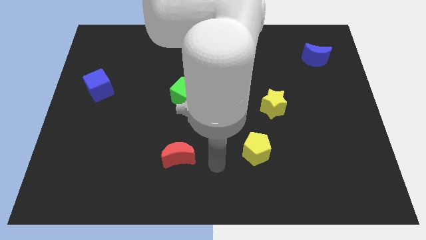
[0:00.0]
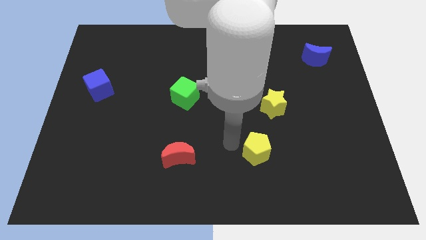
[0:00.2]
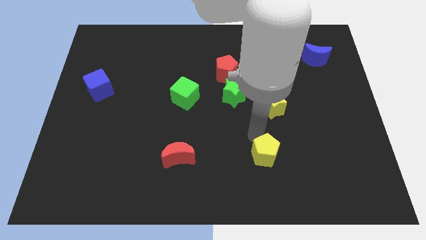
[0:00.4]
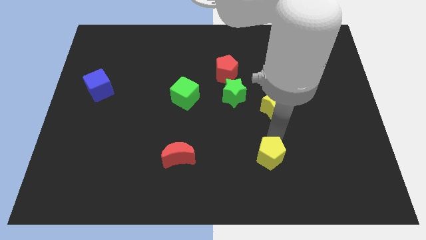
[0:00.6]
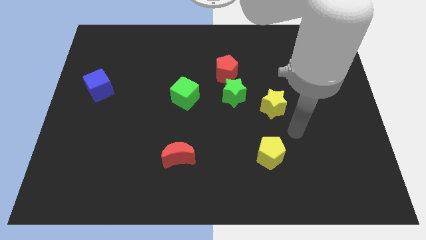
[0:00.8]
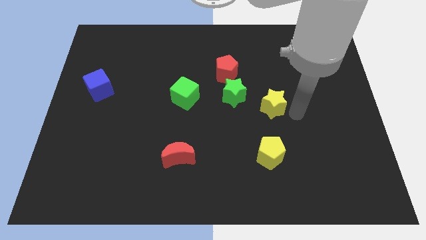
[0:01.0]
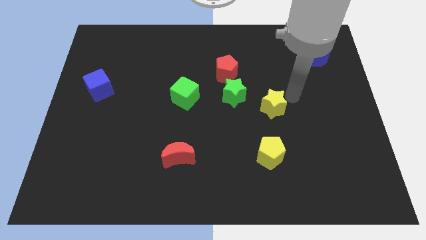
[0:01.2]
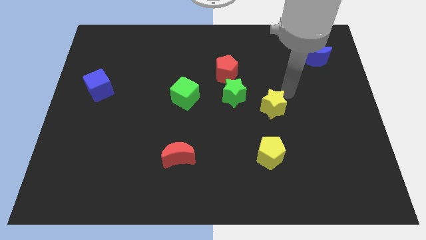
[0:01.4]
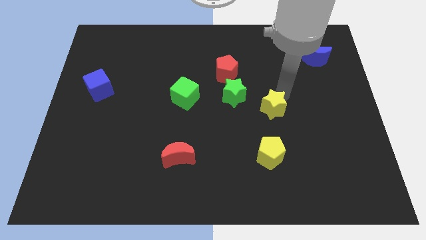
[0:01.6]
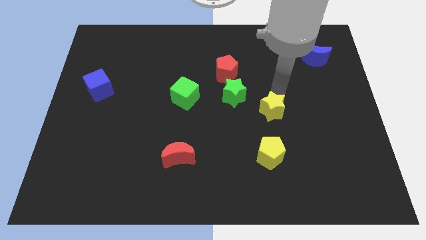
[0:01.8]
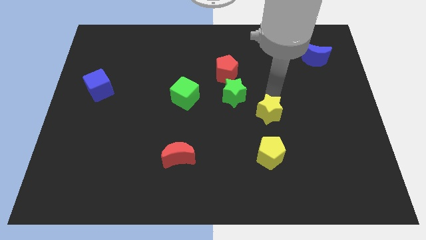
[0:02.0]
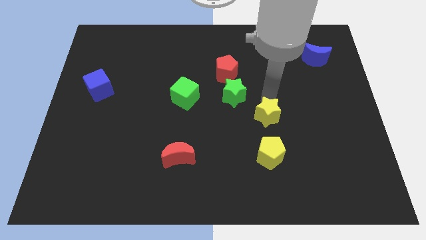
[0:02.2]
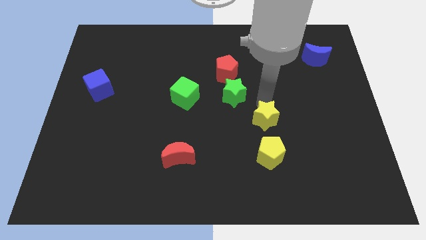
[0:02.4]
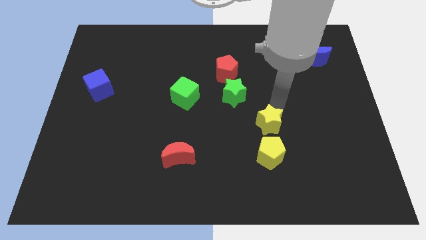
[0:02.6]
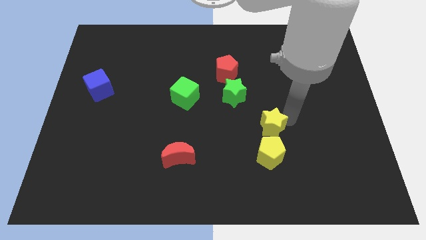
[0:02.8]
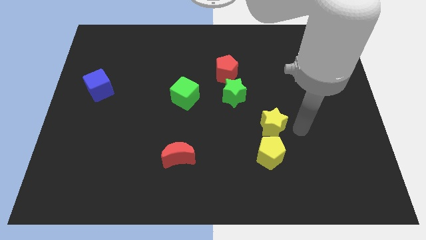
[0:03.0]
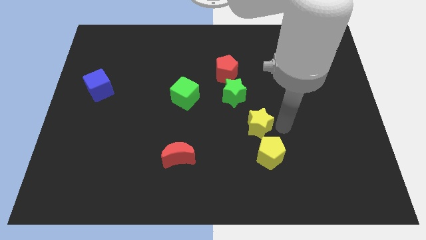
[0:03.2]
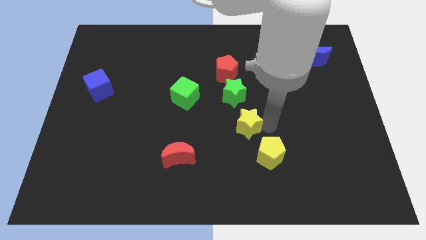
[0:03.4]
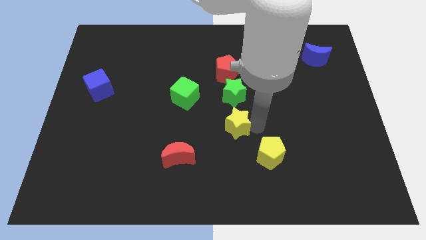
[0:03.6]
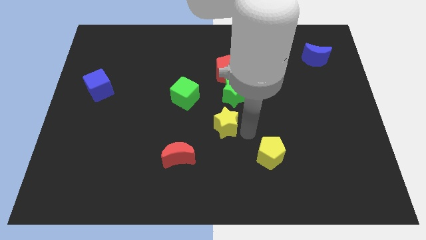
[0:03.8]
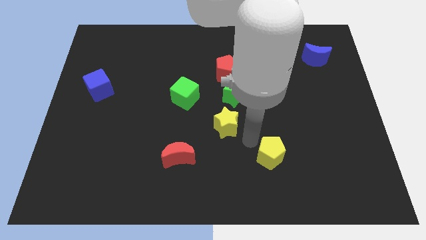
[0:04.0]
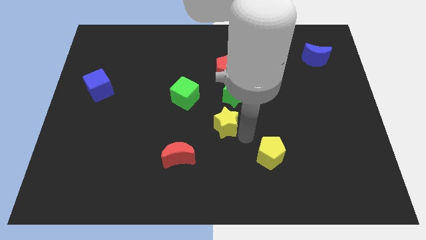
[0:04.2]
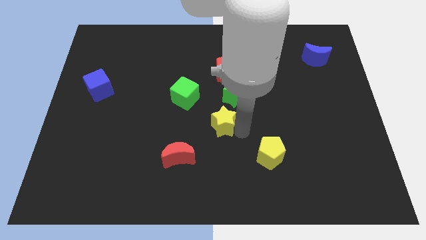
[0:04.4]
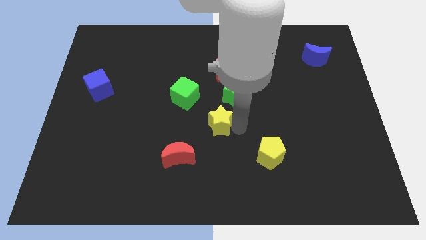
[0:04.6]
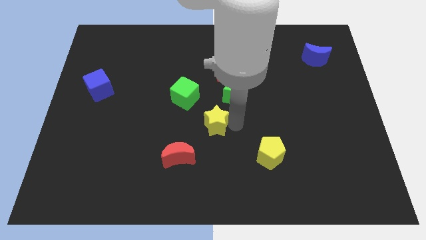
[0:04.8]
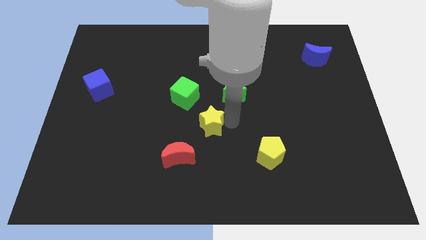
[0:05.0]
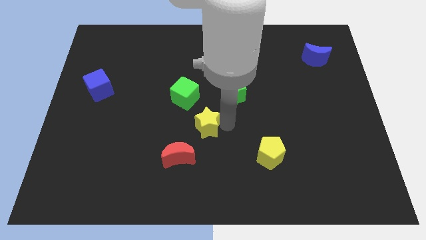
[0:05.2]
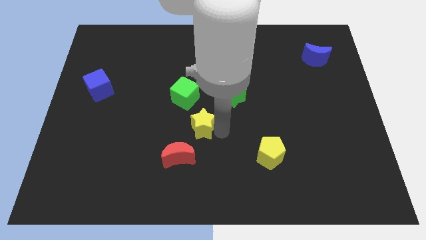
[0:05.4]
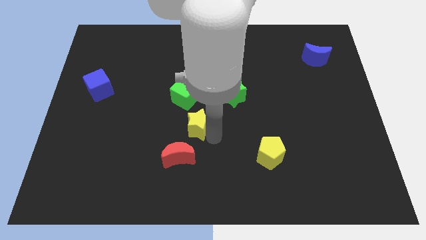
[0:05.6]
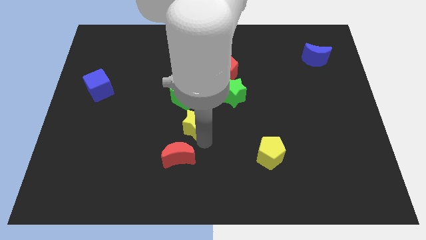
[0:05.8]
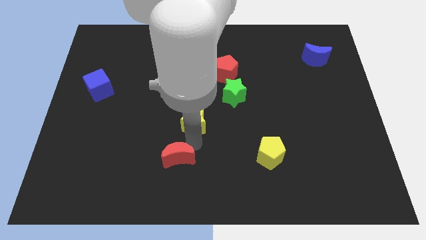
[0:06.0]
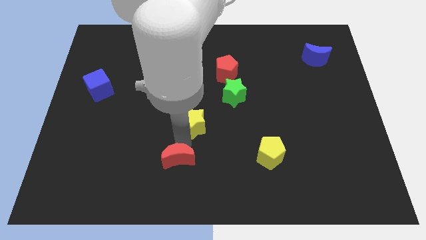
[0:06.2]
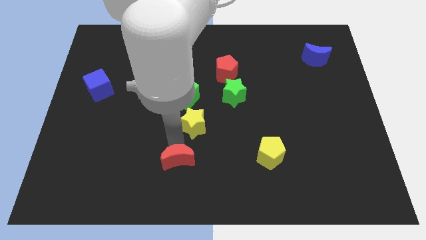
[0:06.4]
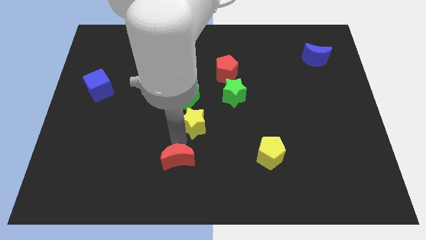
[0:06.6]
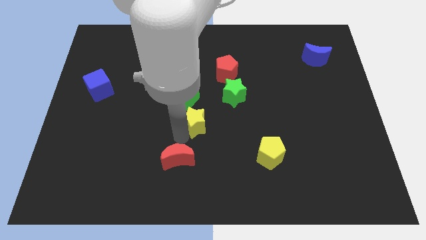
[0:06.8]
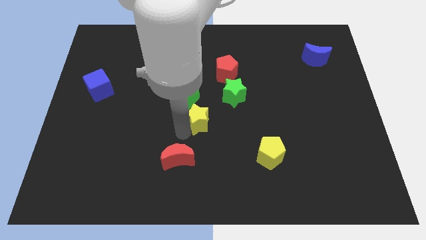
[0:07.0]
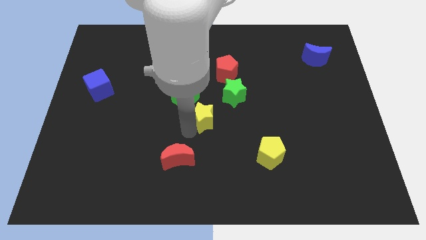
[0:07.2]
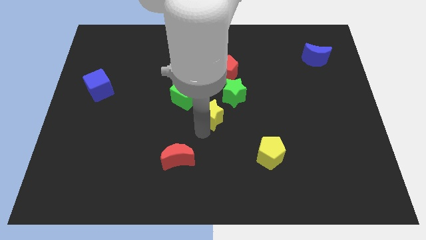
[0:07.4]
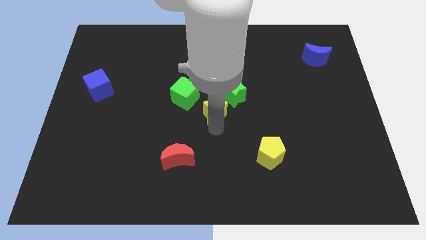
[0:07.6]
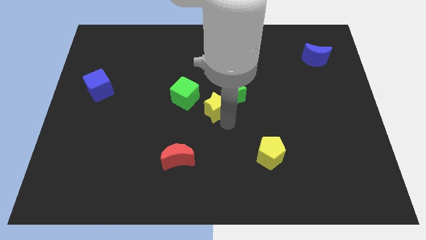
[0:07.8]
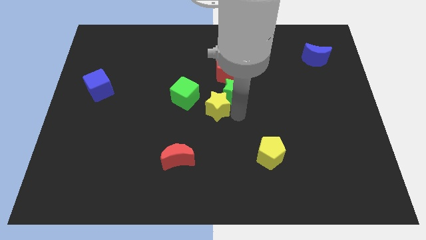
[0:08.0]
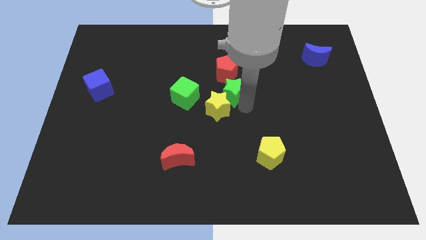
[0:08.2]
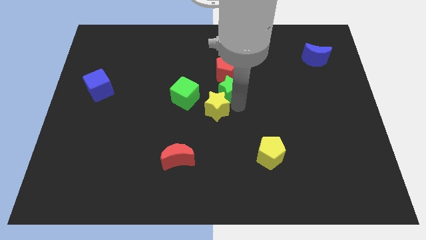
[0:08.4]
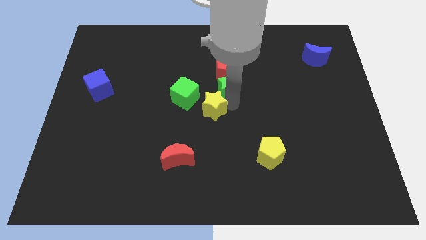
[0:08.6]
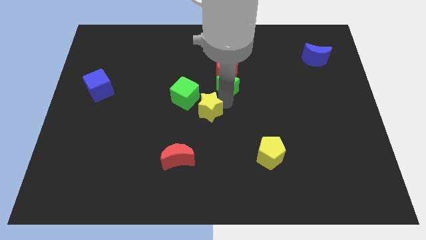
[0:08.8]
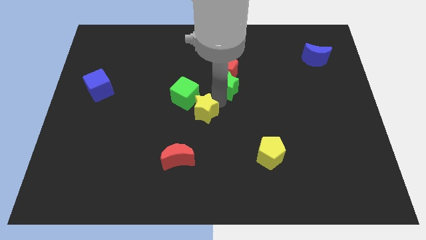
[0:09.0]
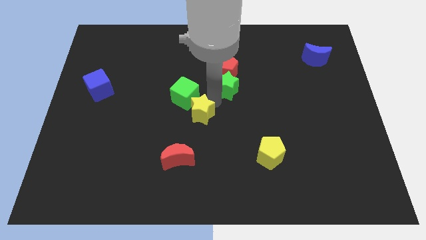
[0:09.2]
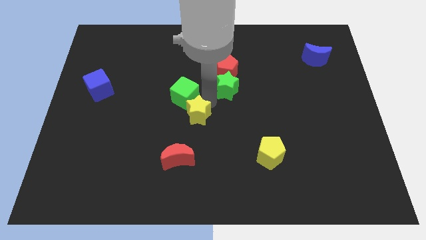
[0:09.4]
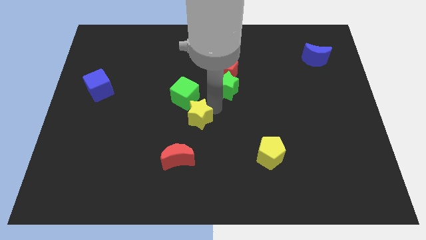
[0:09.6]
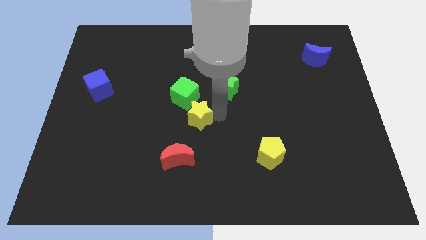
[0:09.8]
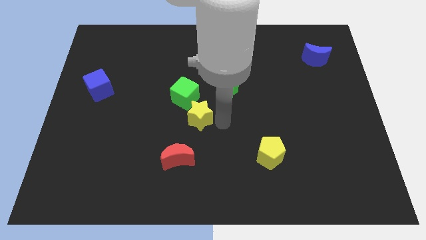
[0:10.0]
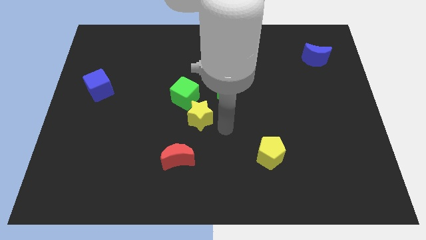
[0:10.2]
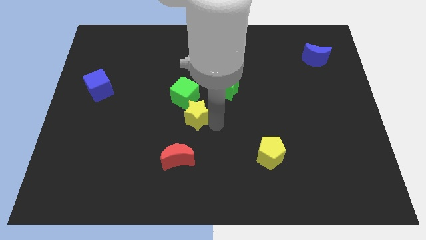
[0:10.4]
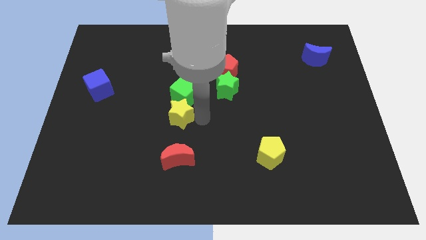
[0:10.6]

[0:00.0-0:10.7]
move the yellow star left

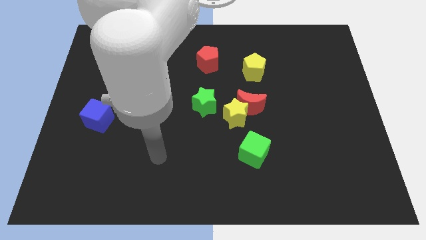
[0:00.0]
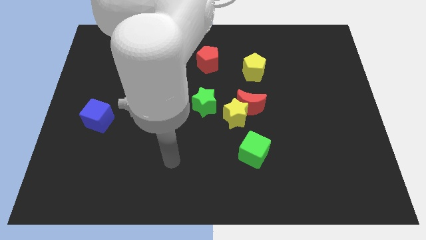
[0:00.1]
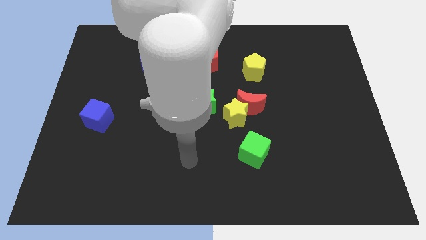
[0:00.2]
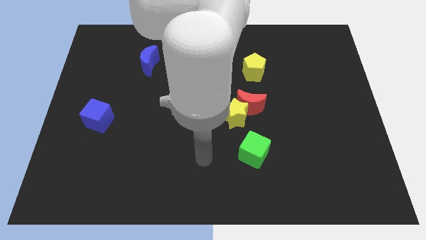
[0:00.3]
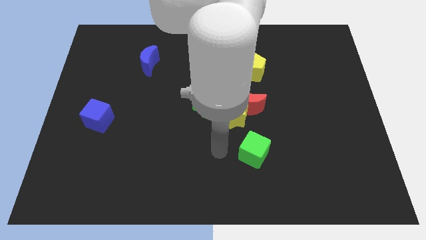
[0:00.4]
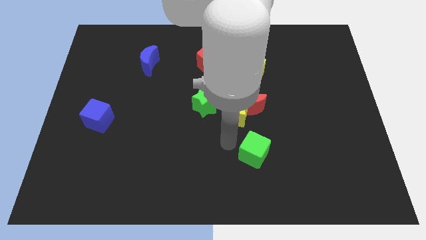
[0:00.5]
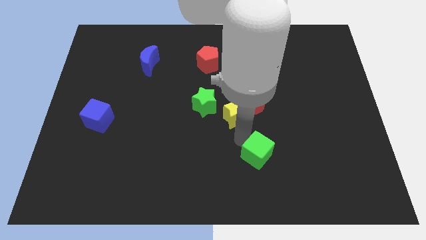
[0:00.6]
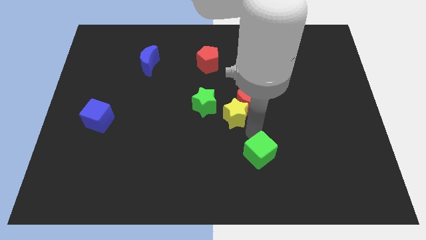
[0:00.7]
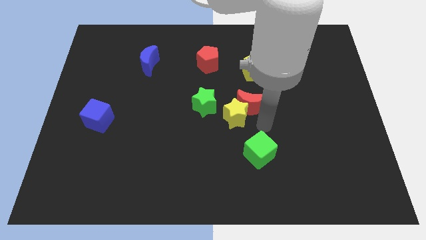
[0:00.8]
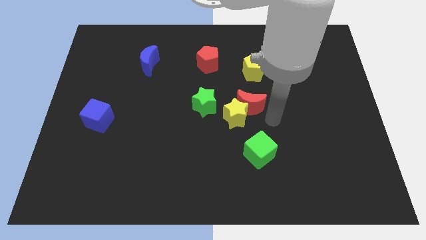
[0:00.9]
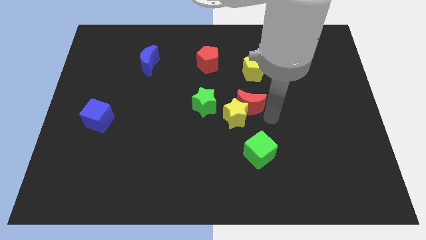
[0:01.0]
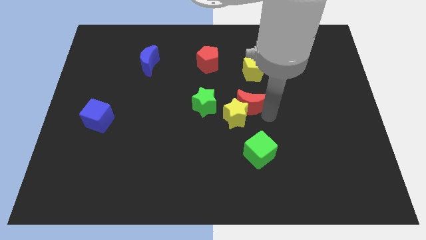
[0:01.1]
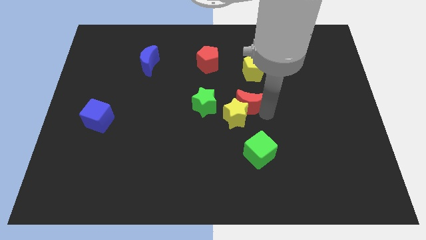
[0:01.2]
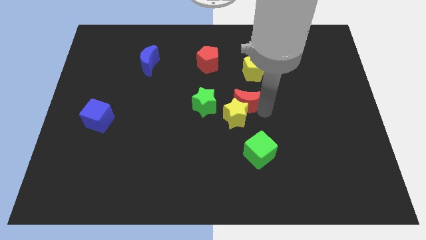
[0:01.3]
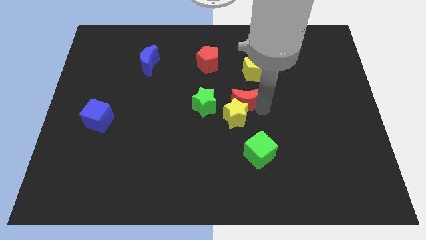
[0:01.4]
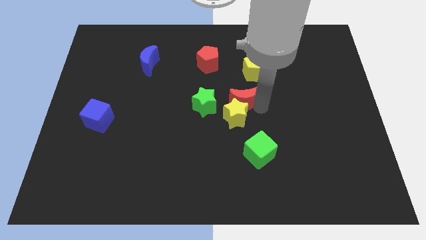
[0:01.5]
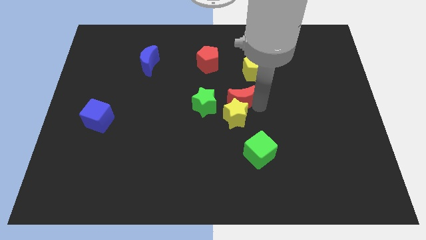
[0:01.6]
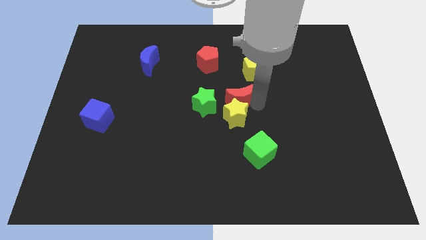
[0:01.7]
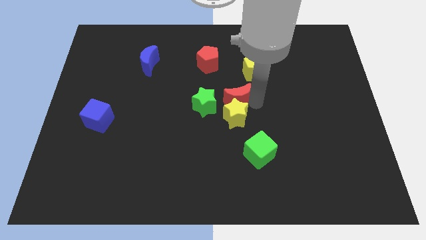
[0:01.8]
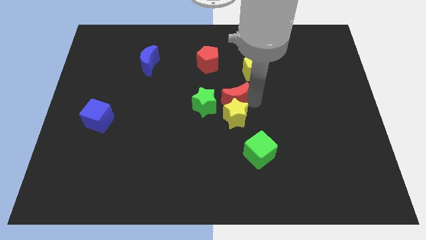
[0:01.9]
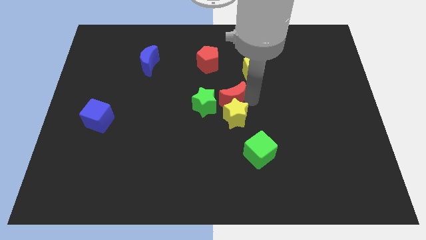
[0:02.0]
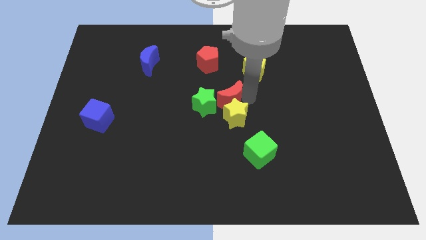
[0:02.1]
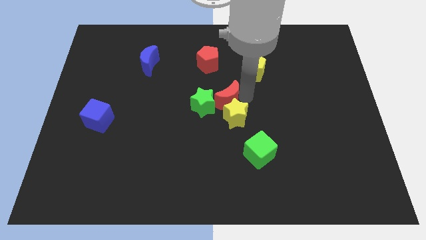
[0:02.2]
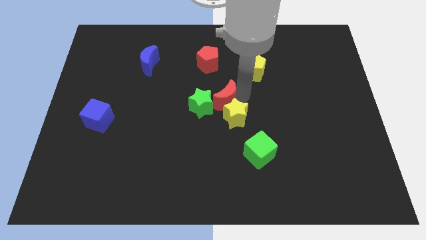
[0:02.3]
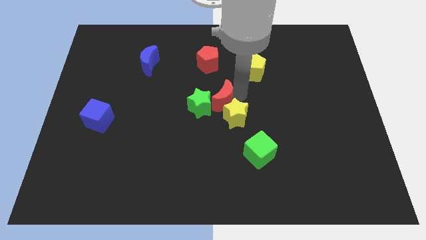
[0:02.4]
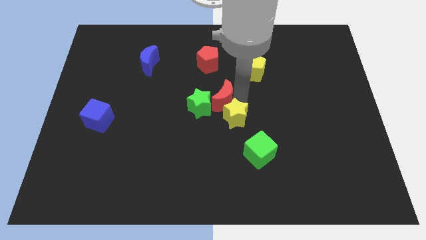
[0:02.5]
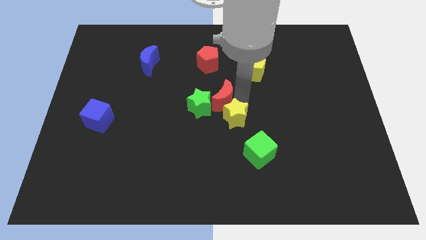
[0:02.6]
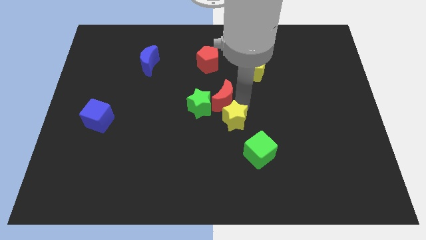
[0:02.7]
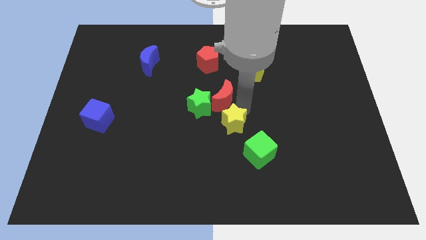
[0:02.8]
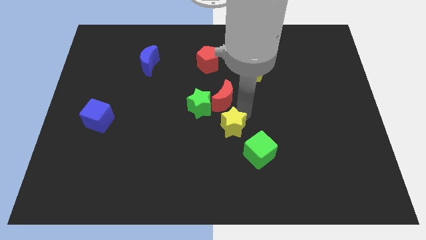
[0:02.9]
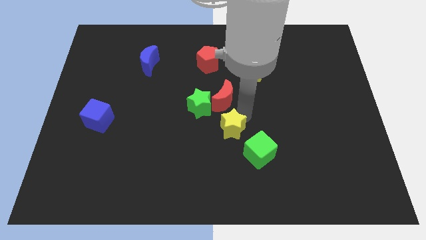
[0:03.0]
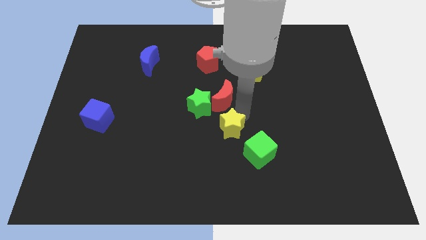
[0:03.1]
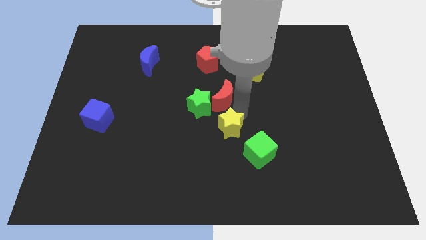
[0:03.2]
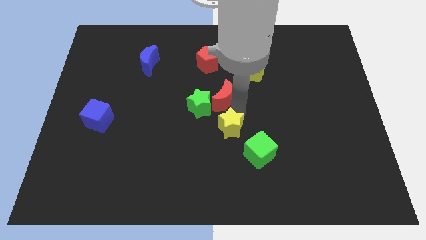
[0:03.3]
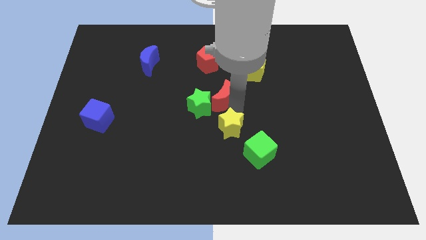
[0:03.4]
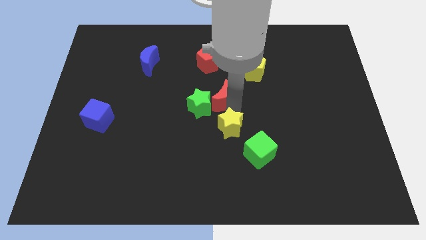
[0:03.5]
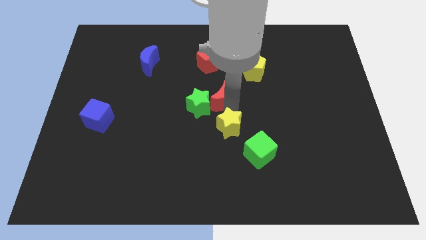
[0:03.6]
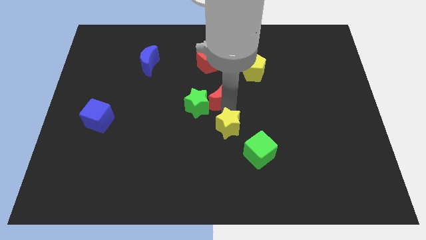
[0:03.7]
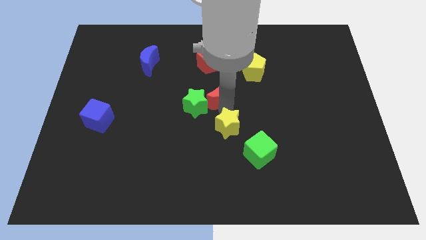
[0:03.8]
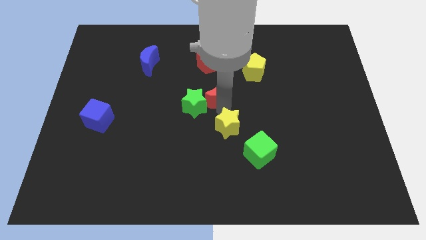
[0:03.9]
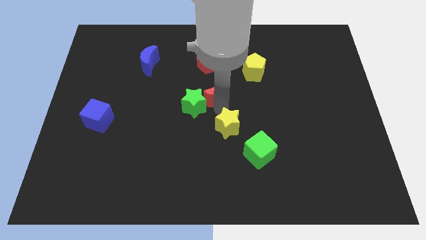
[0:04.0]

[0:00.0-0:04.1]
move the red moon diagonally upwards and left a little bit
